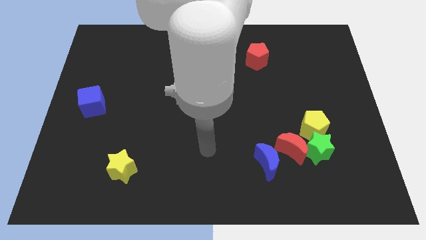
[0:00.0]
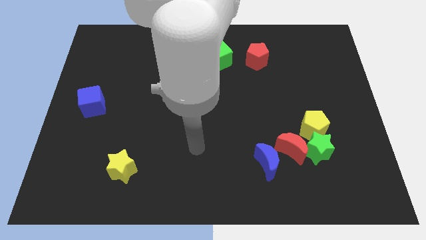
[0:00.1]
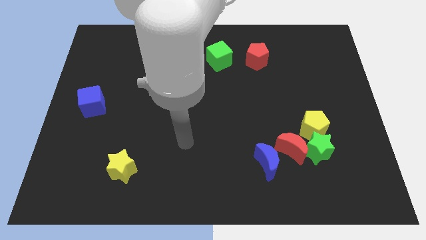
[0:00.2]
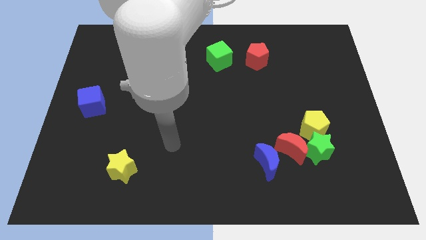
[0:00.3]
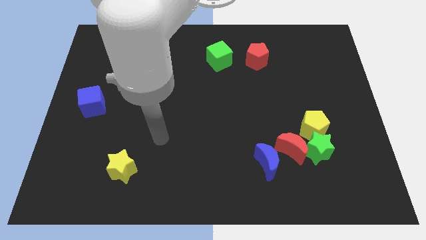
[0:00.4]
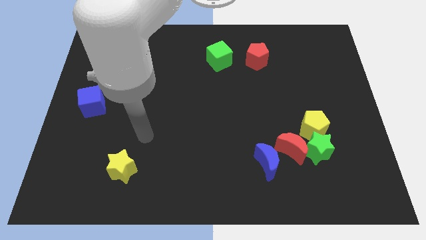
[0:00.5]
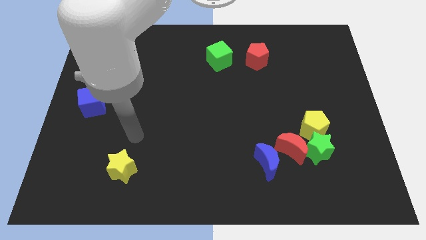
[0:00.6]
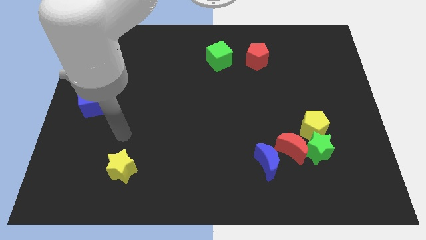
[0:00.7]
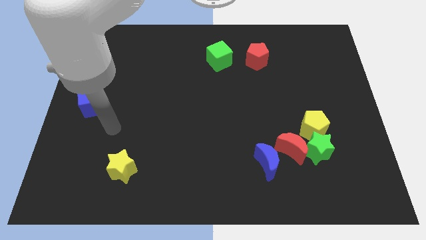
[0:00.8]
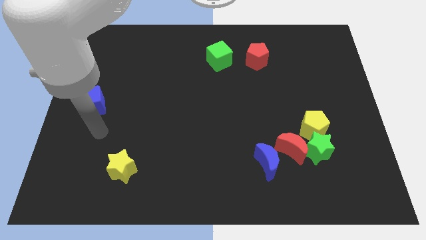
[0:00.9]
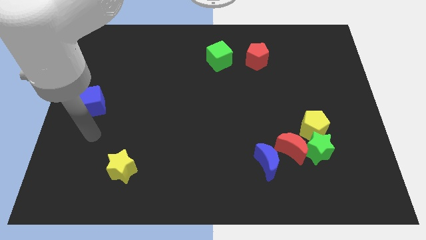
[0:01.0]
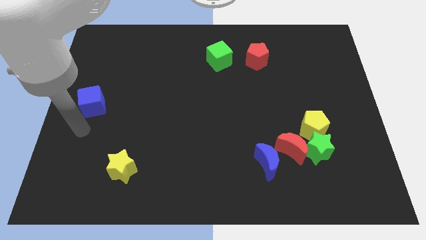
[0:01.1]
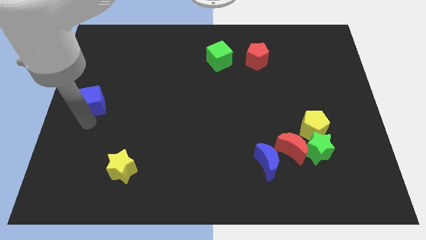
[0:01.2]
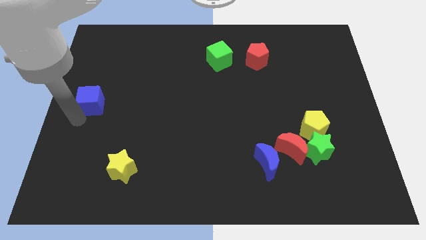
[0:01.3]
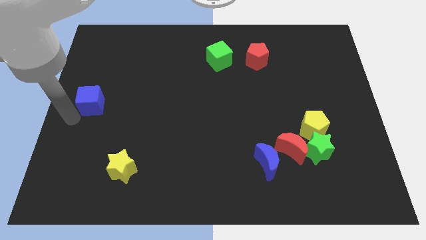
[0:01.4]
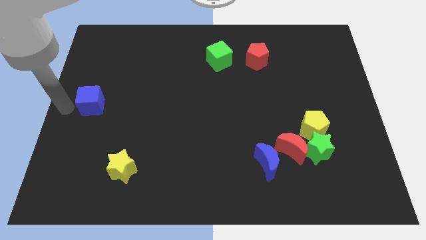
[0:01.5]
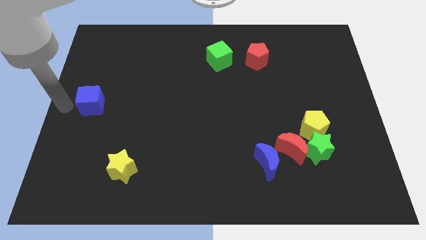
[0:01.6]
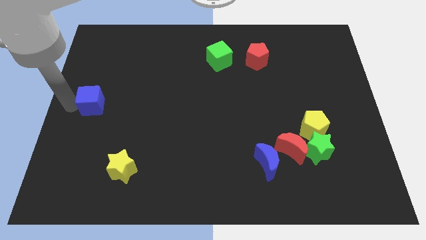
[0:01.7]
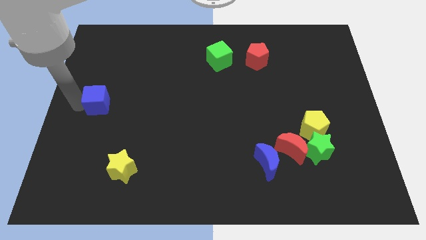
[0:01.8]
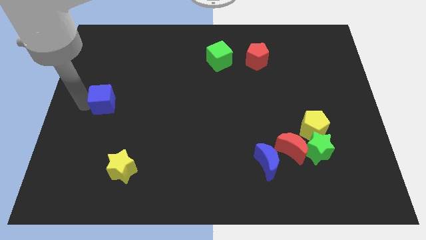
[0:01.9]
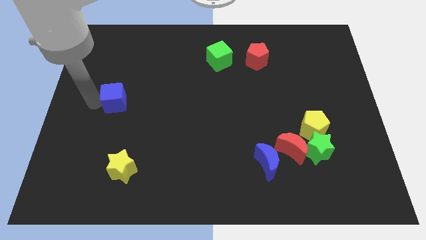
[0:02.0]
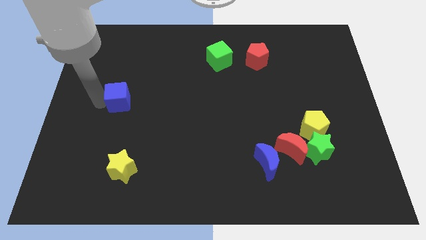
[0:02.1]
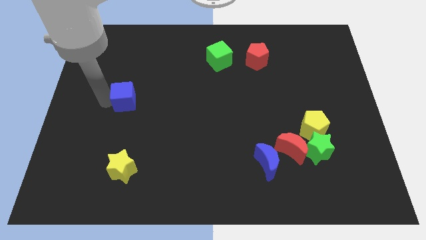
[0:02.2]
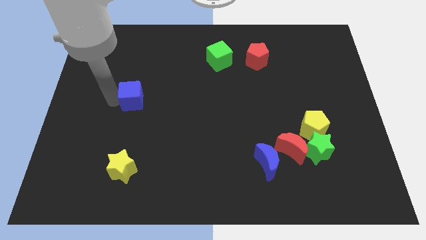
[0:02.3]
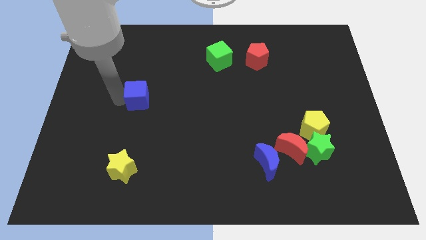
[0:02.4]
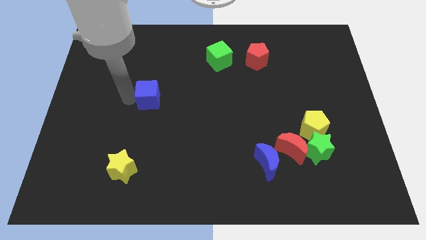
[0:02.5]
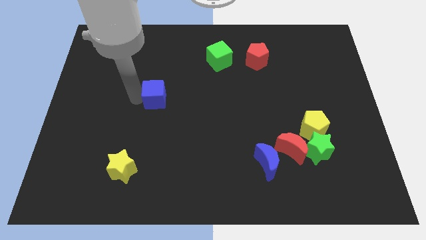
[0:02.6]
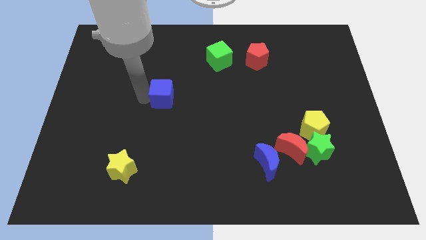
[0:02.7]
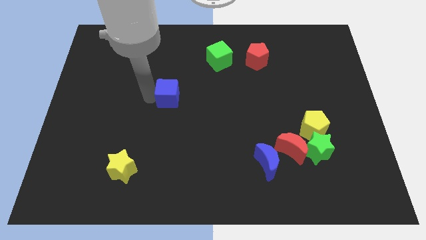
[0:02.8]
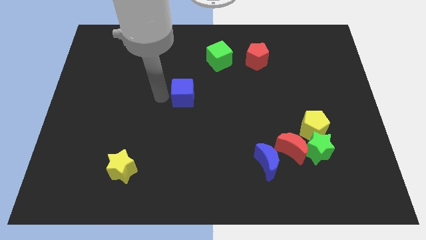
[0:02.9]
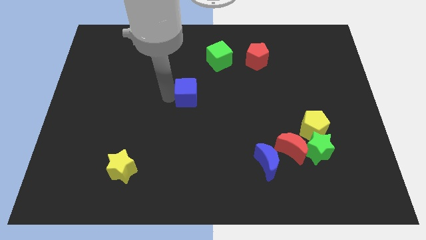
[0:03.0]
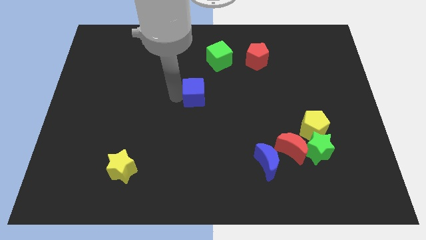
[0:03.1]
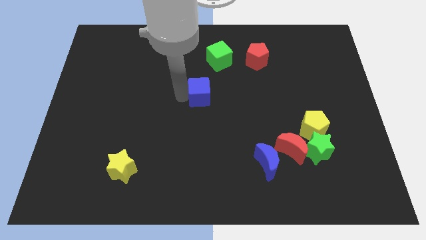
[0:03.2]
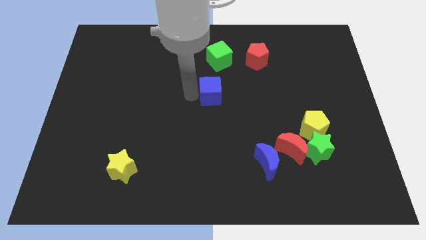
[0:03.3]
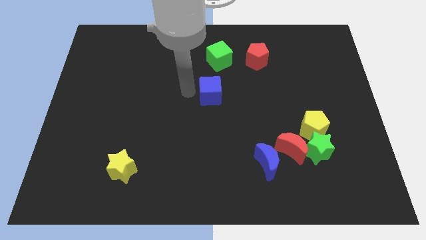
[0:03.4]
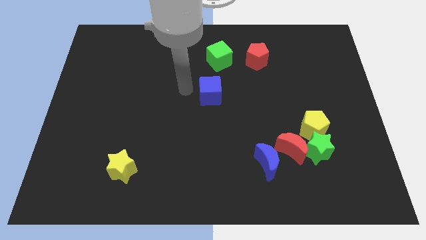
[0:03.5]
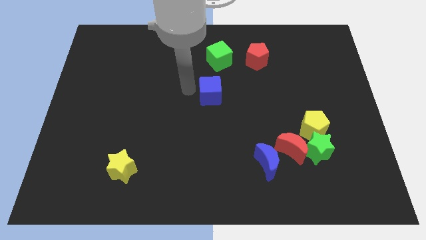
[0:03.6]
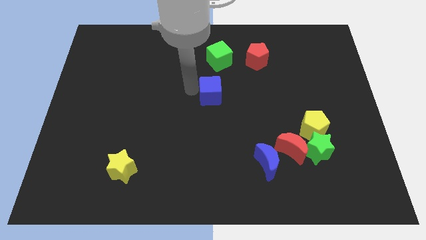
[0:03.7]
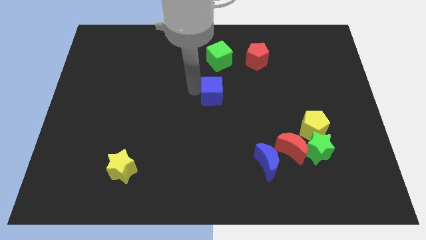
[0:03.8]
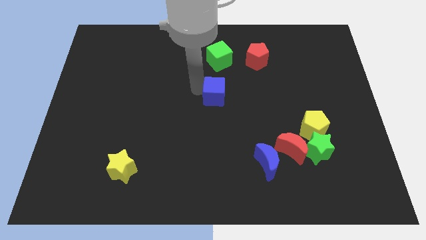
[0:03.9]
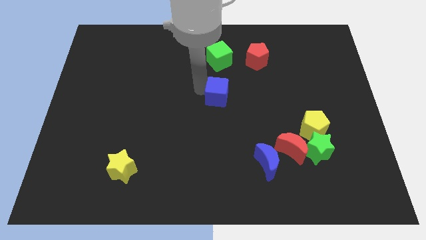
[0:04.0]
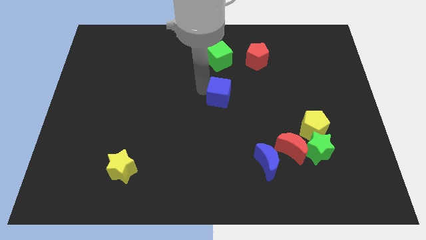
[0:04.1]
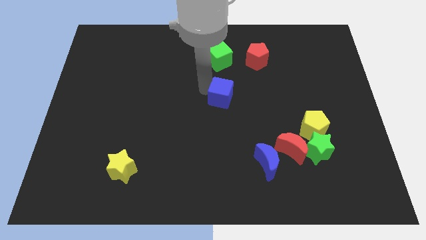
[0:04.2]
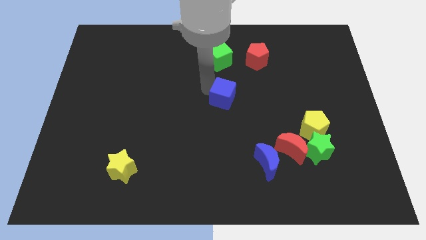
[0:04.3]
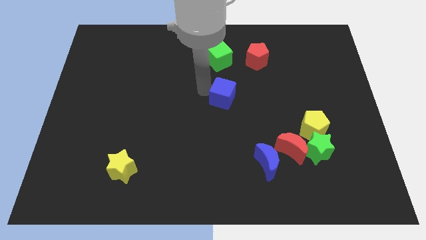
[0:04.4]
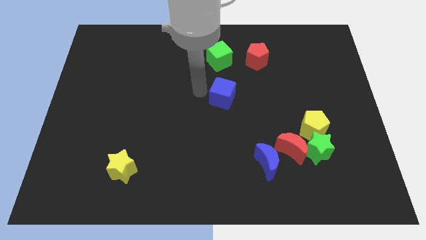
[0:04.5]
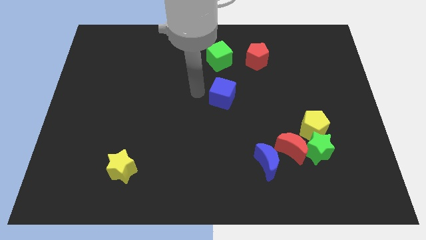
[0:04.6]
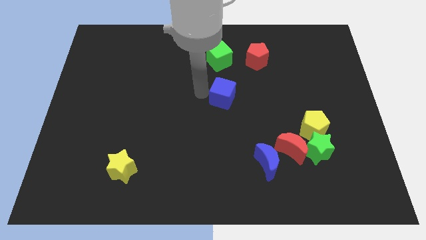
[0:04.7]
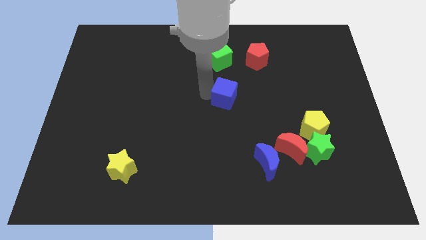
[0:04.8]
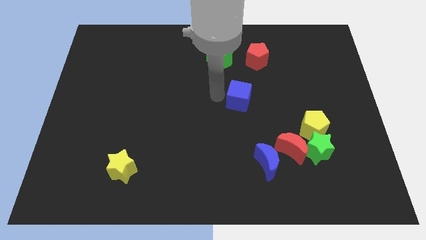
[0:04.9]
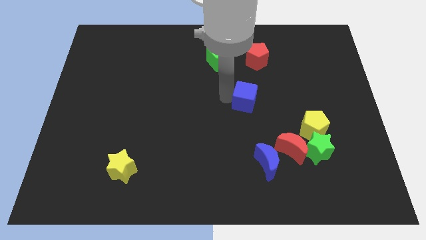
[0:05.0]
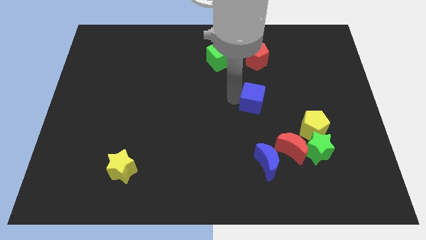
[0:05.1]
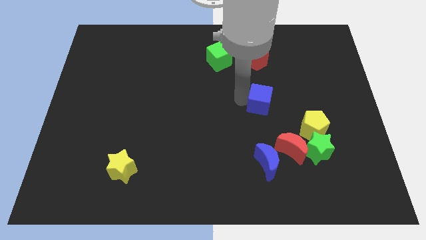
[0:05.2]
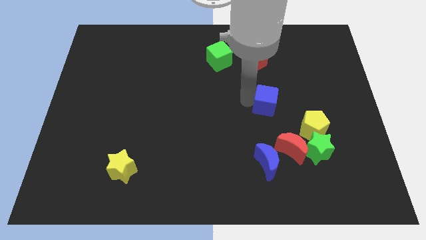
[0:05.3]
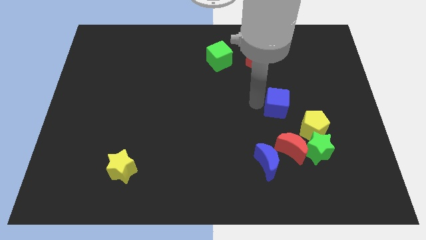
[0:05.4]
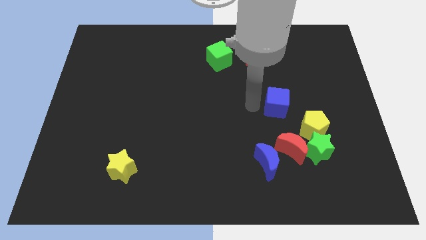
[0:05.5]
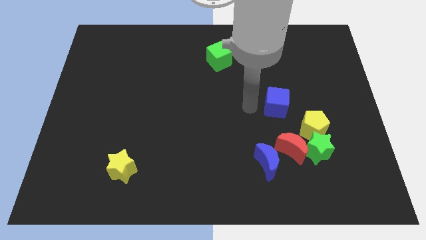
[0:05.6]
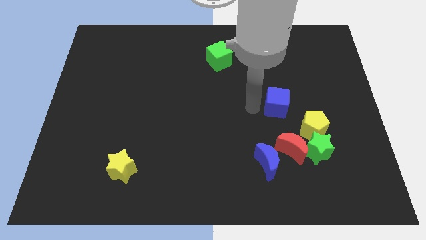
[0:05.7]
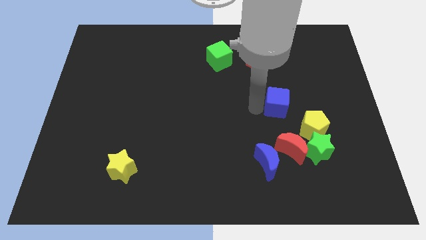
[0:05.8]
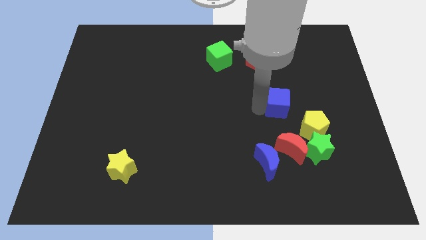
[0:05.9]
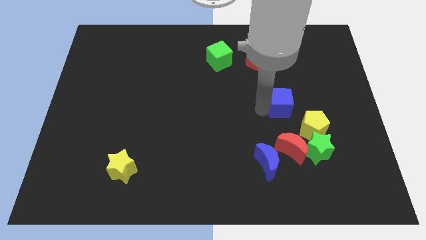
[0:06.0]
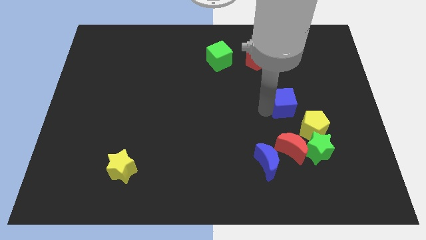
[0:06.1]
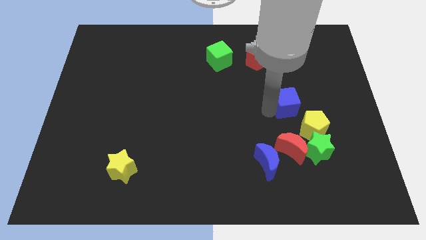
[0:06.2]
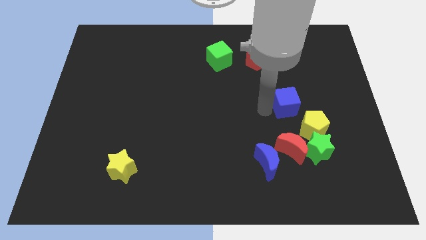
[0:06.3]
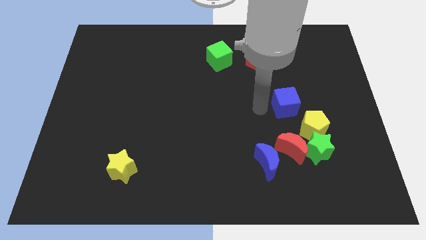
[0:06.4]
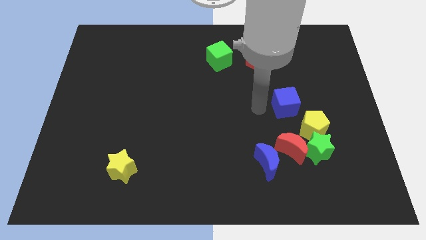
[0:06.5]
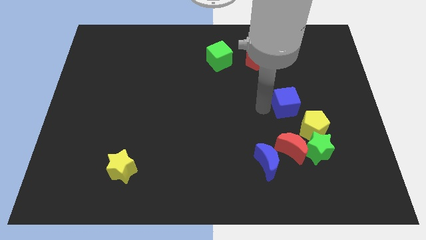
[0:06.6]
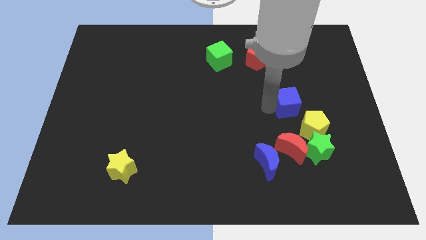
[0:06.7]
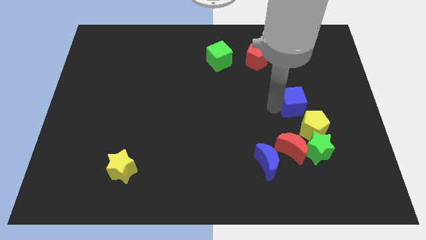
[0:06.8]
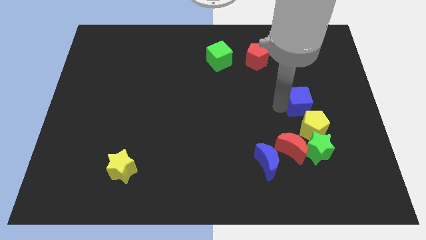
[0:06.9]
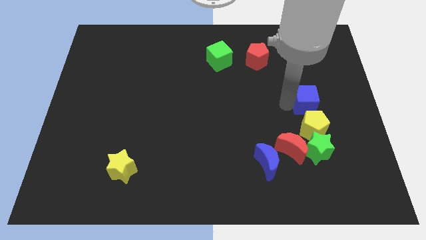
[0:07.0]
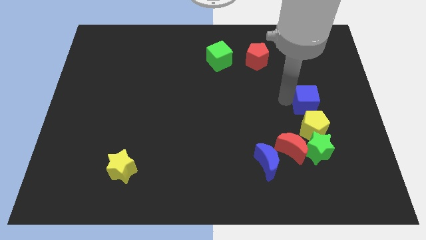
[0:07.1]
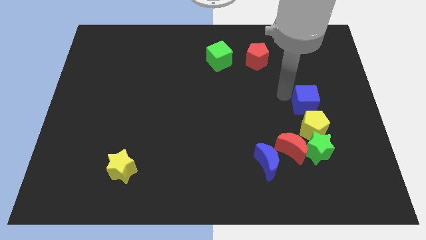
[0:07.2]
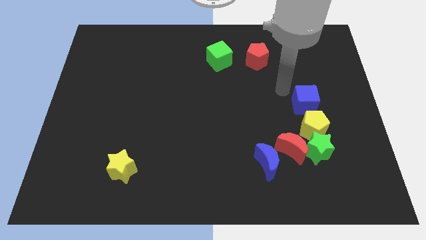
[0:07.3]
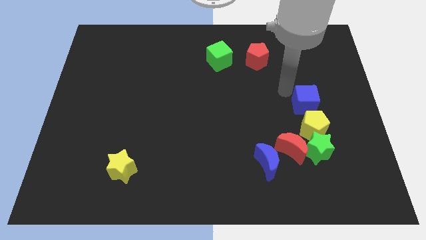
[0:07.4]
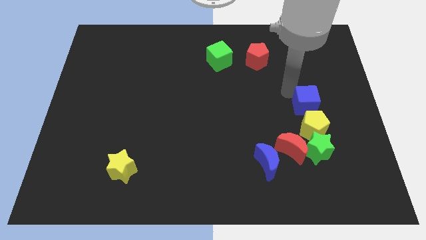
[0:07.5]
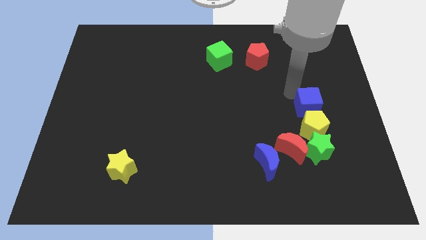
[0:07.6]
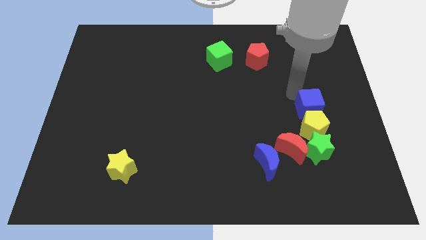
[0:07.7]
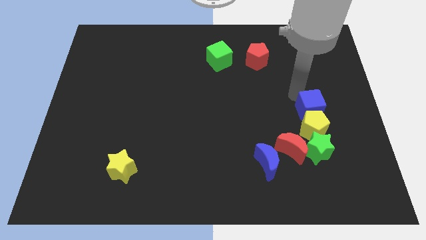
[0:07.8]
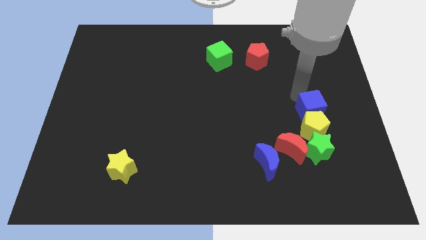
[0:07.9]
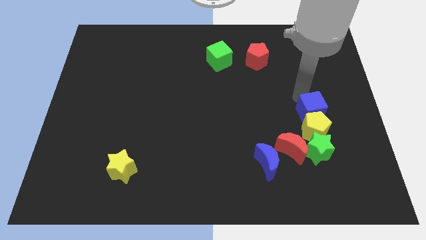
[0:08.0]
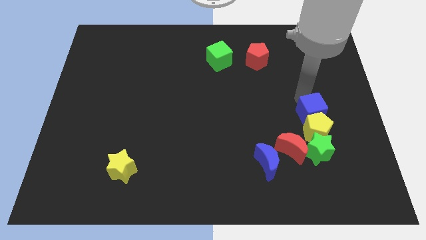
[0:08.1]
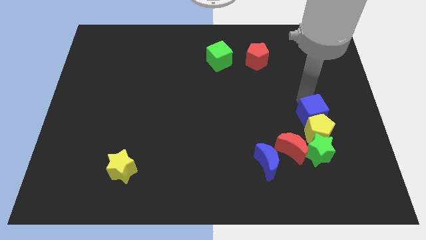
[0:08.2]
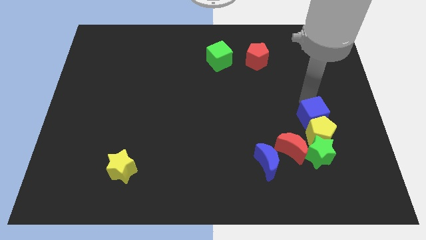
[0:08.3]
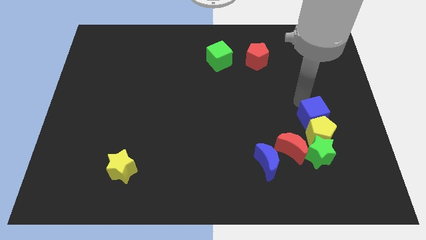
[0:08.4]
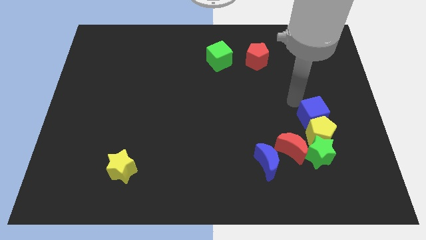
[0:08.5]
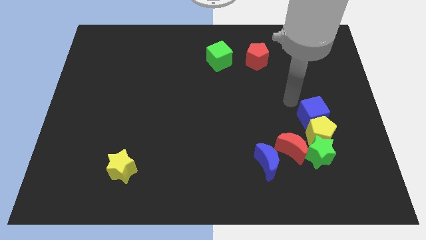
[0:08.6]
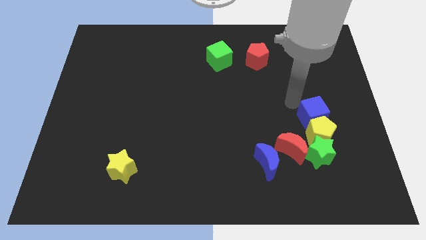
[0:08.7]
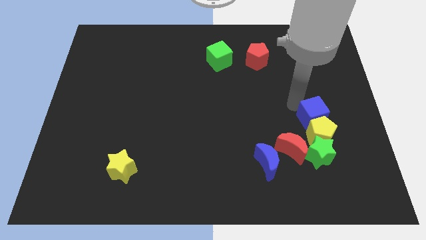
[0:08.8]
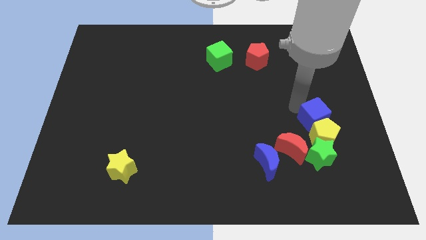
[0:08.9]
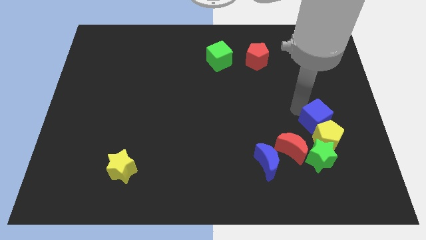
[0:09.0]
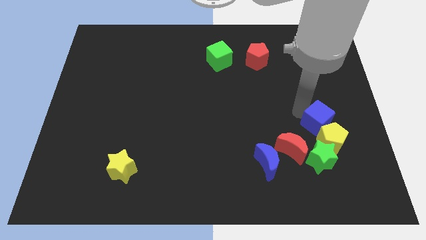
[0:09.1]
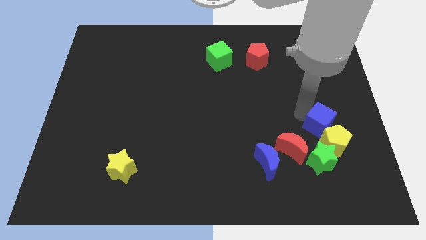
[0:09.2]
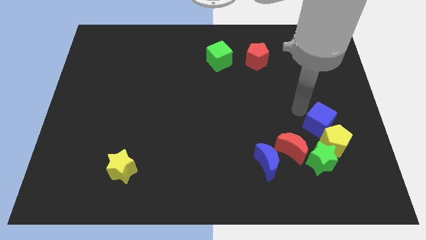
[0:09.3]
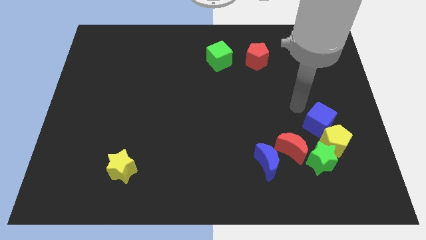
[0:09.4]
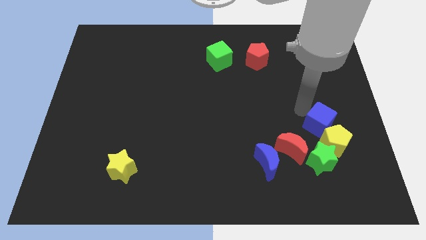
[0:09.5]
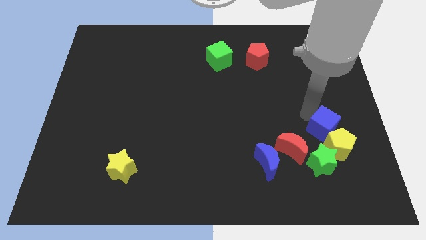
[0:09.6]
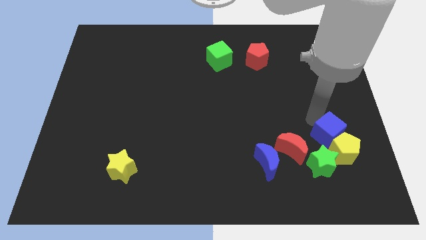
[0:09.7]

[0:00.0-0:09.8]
push the blue cube to the top right of the green star
